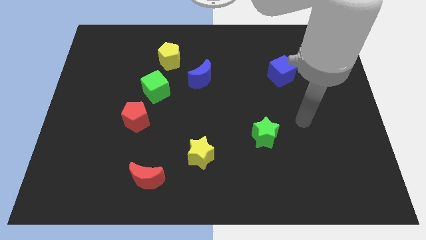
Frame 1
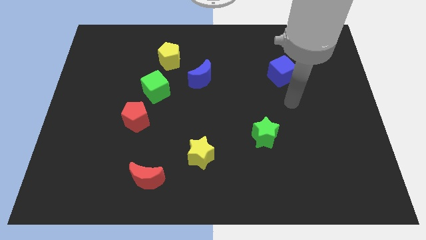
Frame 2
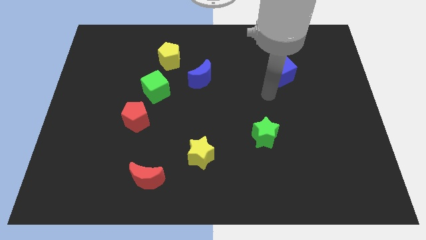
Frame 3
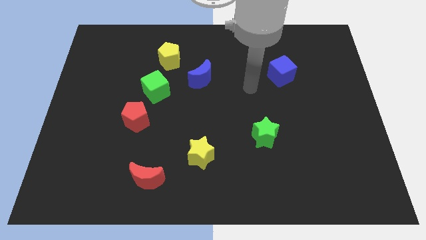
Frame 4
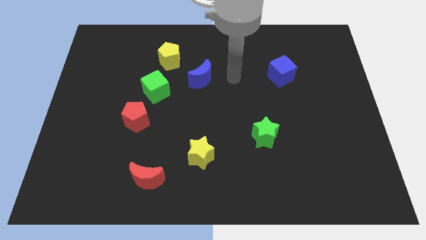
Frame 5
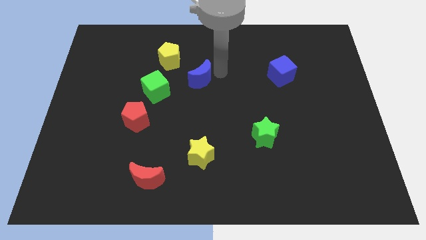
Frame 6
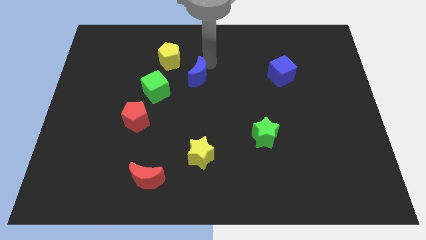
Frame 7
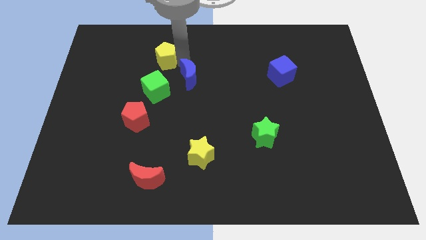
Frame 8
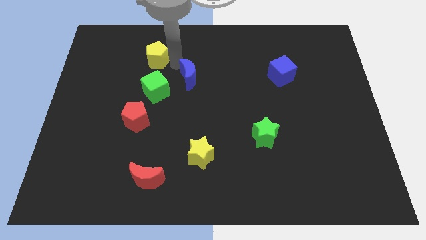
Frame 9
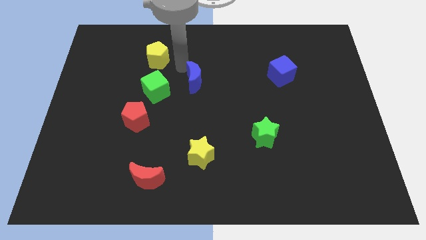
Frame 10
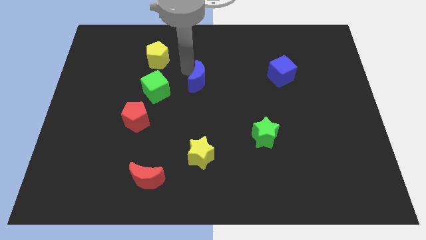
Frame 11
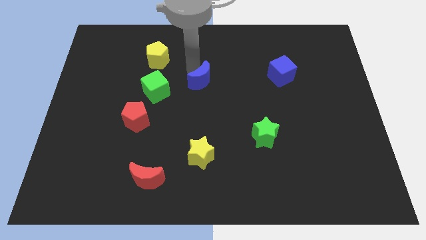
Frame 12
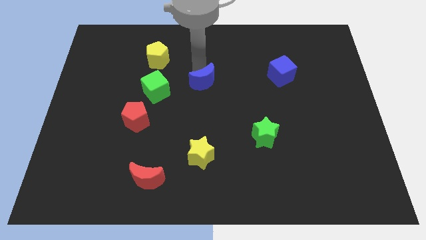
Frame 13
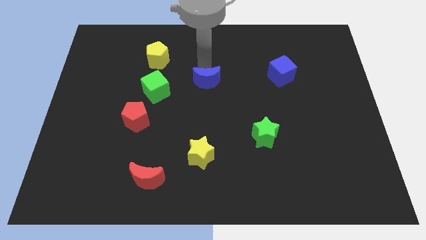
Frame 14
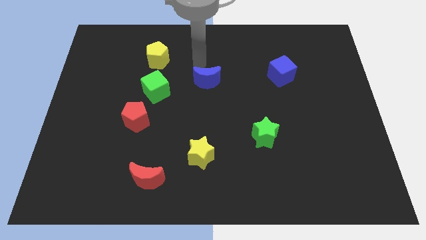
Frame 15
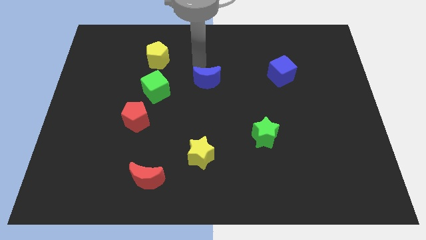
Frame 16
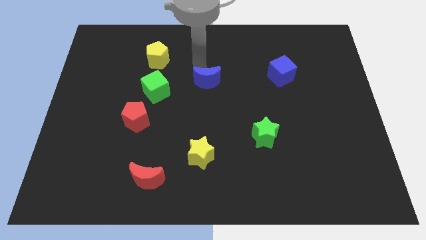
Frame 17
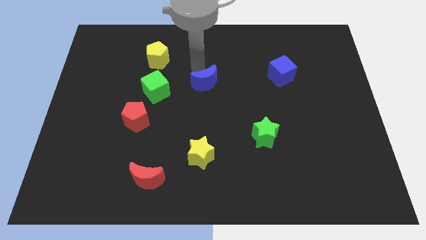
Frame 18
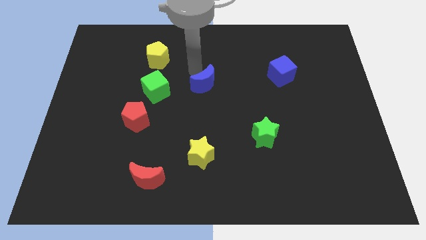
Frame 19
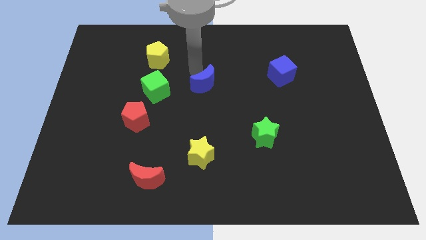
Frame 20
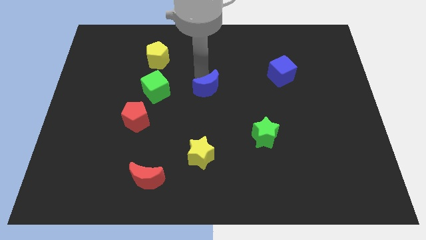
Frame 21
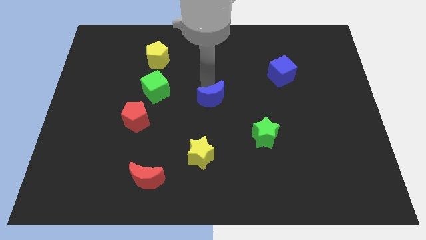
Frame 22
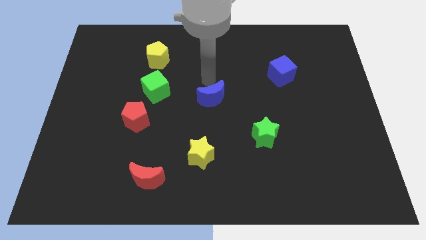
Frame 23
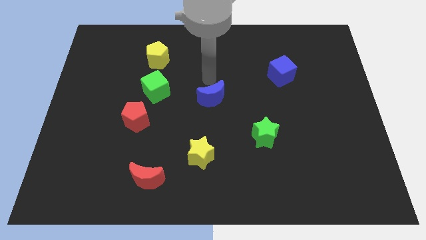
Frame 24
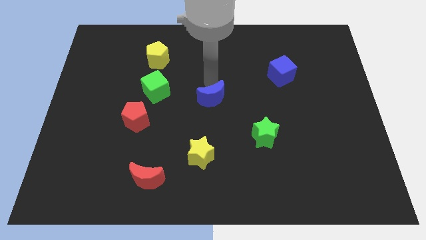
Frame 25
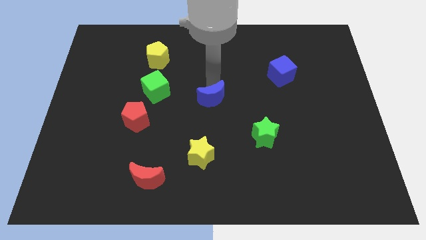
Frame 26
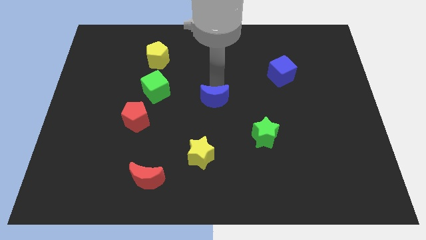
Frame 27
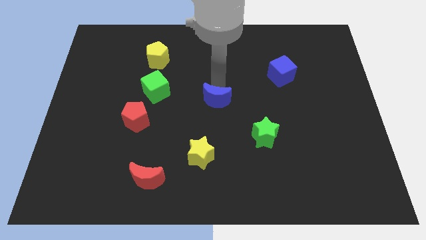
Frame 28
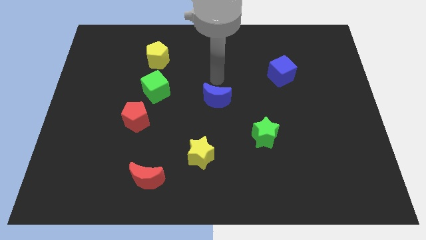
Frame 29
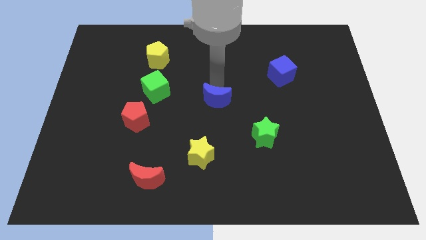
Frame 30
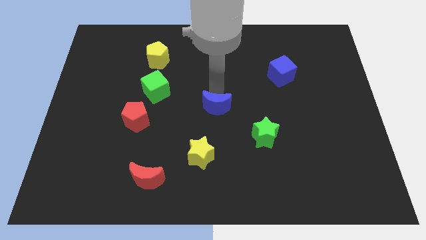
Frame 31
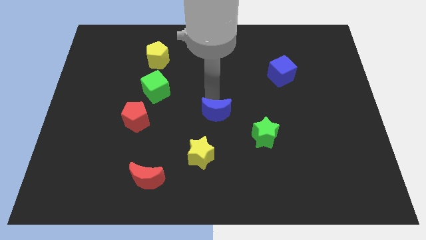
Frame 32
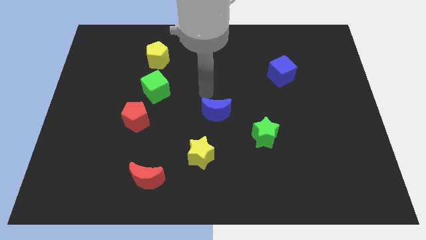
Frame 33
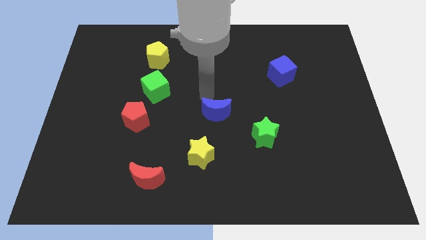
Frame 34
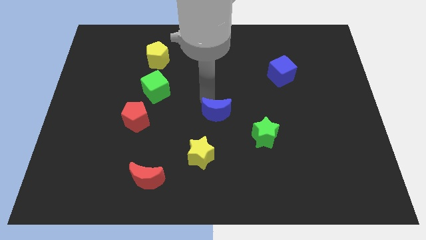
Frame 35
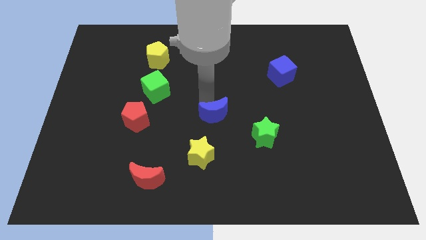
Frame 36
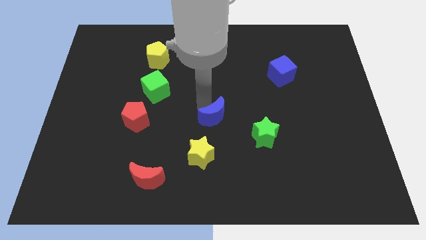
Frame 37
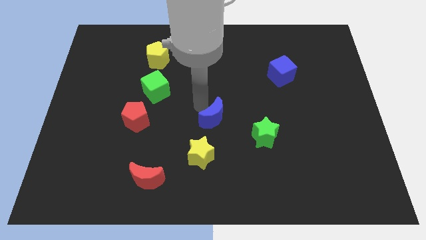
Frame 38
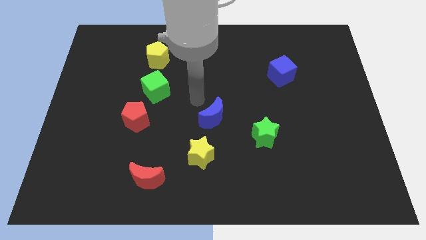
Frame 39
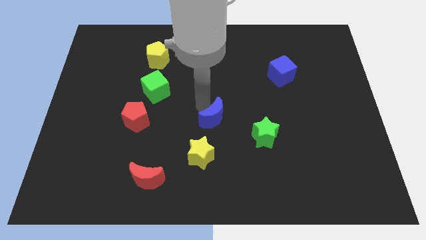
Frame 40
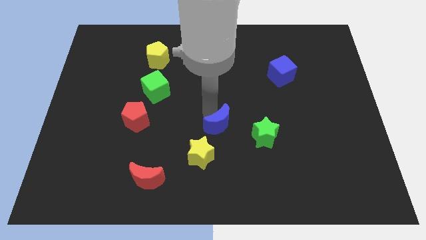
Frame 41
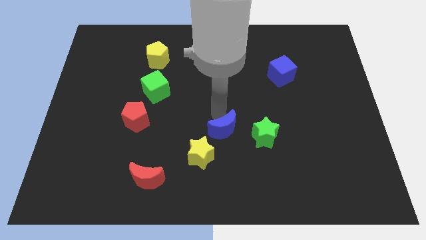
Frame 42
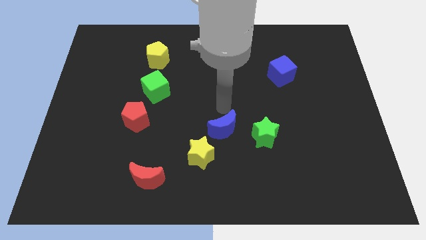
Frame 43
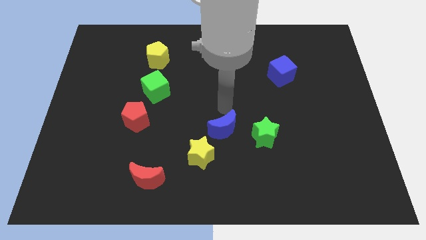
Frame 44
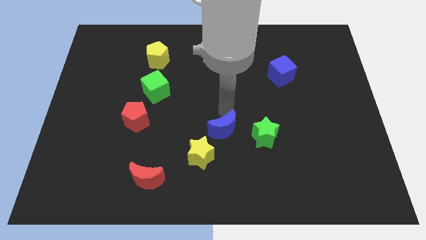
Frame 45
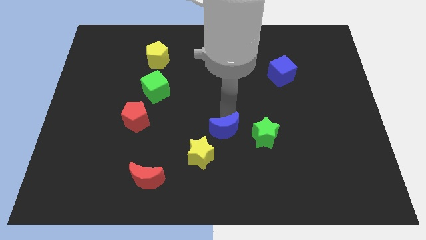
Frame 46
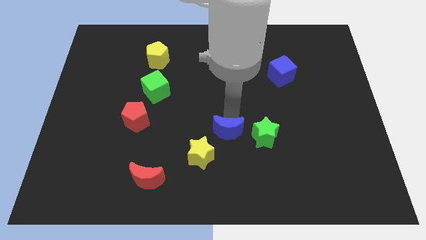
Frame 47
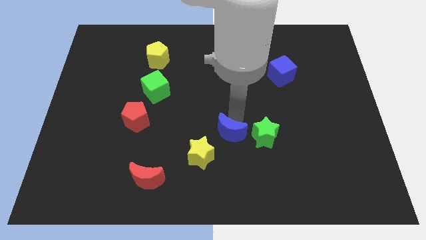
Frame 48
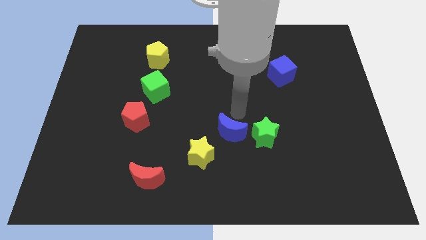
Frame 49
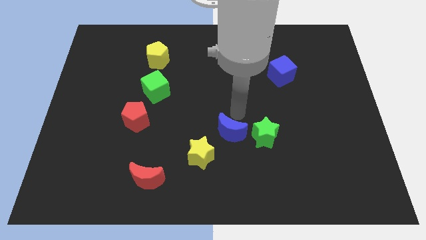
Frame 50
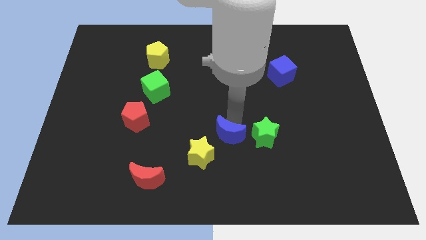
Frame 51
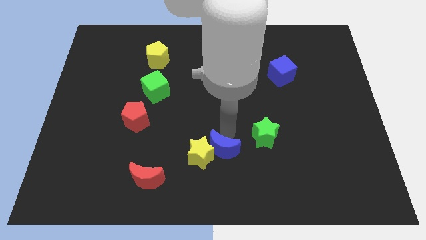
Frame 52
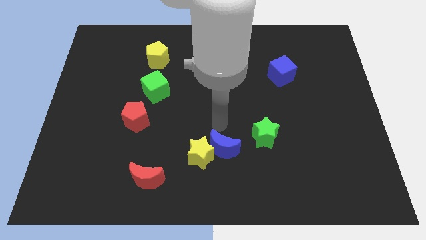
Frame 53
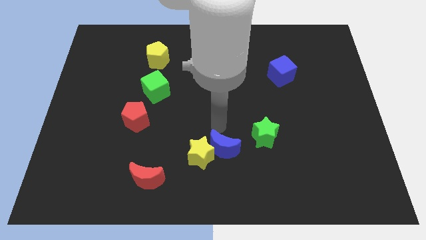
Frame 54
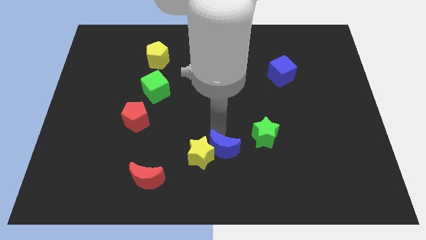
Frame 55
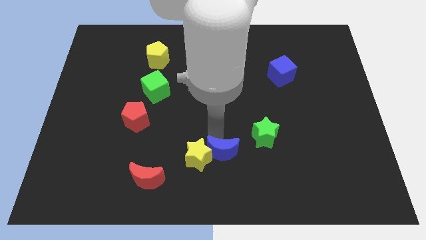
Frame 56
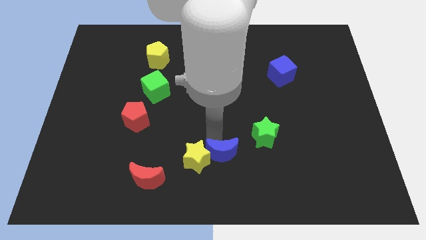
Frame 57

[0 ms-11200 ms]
slide the blue moon to the bottom side
